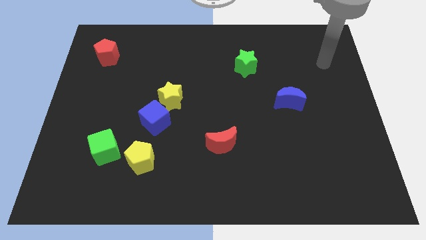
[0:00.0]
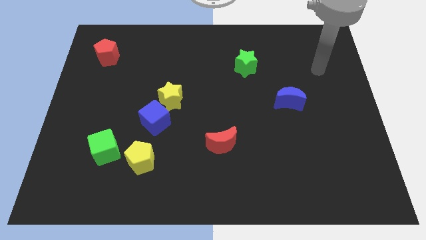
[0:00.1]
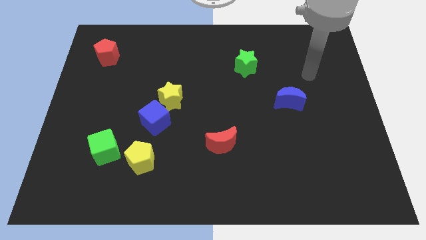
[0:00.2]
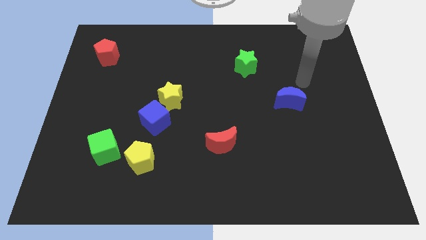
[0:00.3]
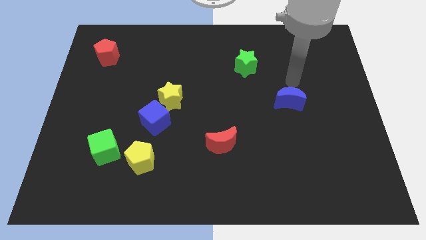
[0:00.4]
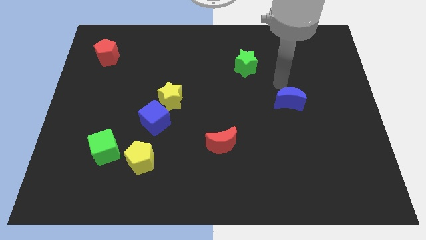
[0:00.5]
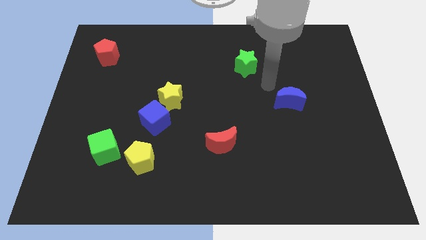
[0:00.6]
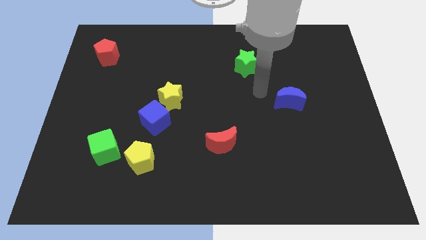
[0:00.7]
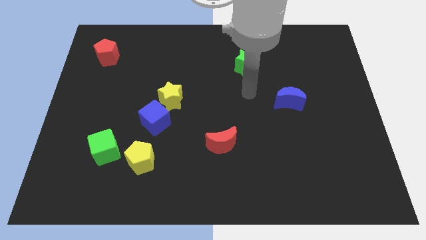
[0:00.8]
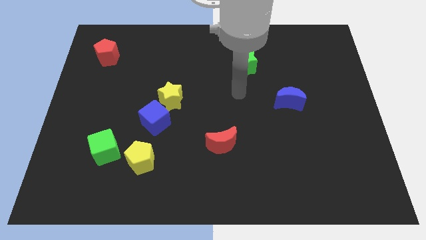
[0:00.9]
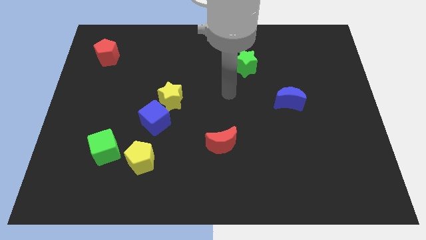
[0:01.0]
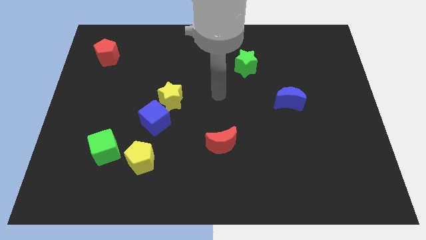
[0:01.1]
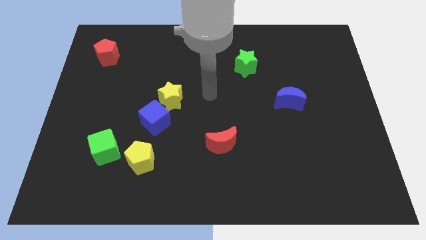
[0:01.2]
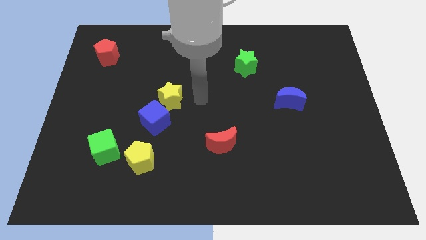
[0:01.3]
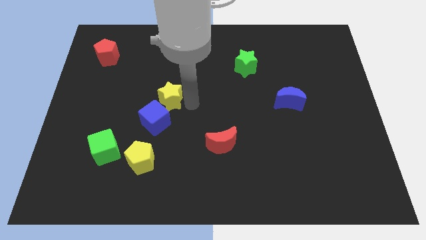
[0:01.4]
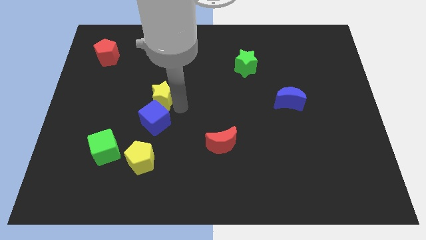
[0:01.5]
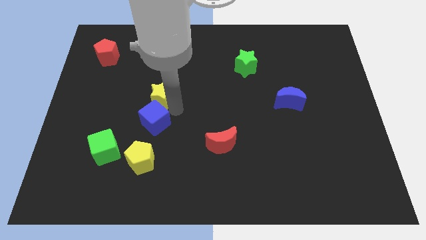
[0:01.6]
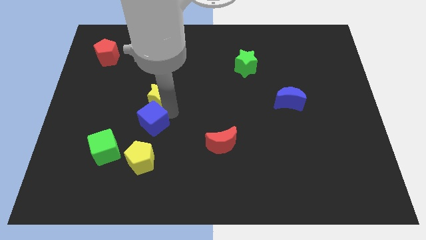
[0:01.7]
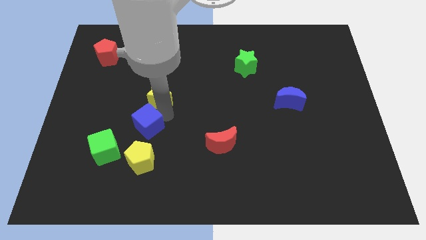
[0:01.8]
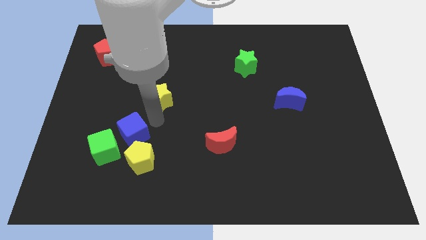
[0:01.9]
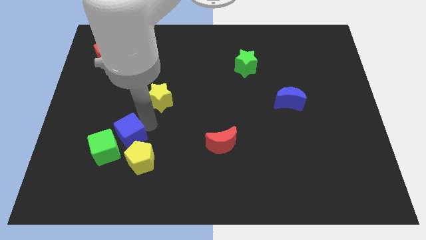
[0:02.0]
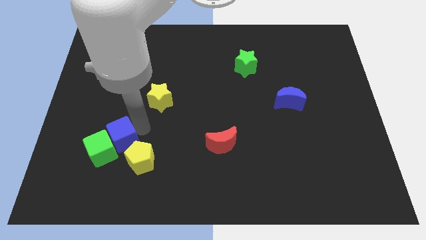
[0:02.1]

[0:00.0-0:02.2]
move the blue cube close to the green cube

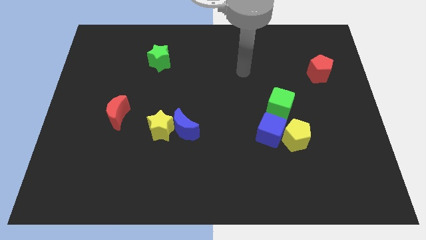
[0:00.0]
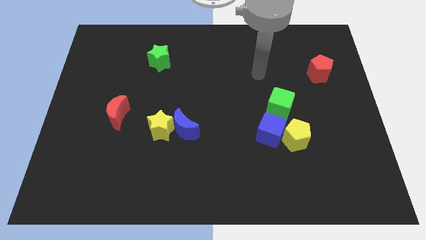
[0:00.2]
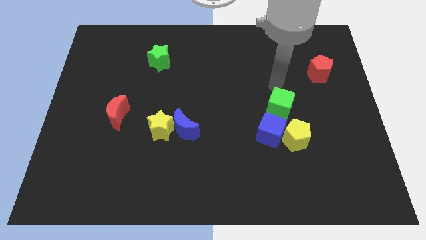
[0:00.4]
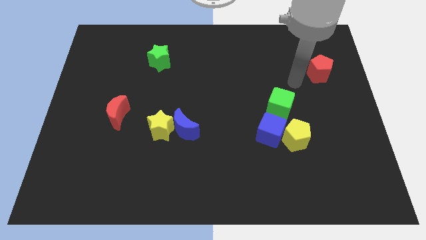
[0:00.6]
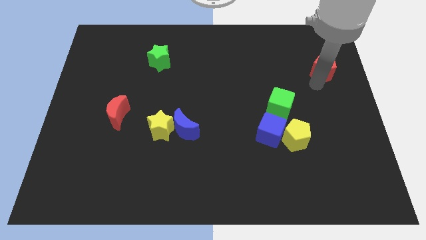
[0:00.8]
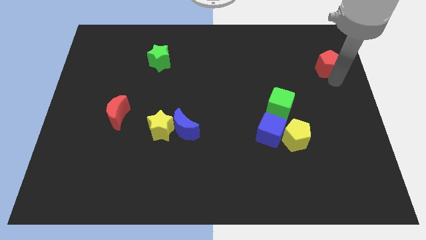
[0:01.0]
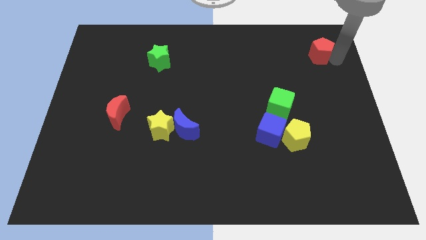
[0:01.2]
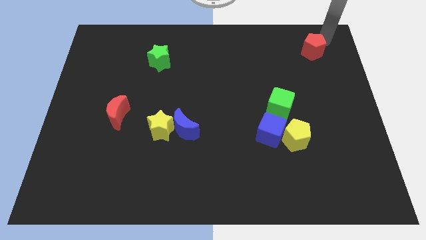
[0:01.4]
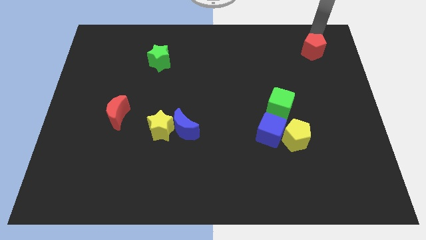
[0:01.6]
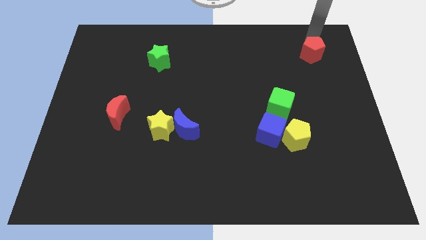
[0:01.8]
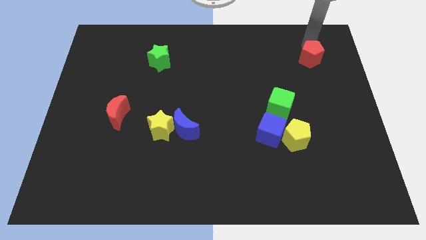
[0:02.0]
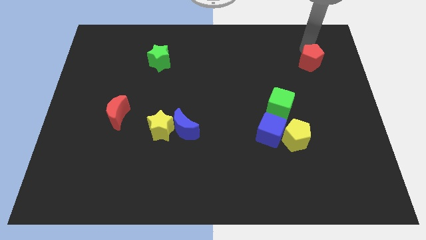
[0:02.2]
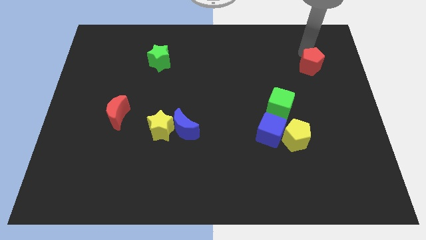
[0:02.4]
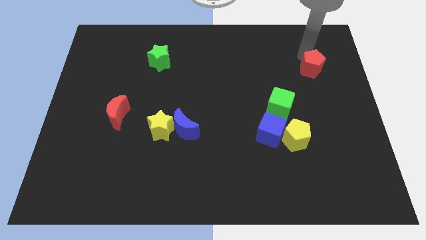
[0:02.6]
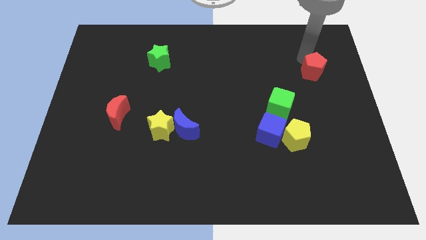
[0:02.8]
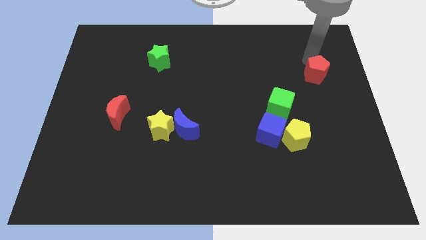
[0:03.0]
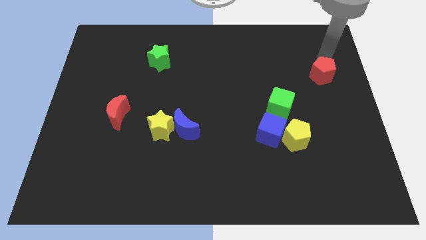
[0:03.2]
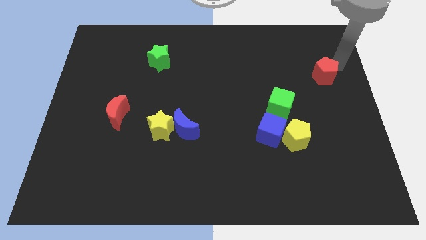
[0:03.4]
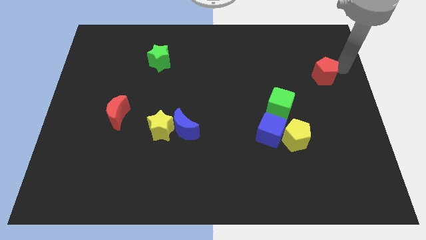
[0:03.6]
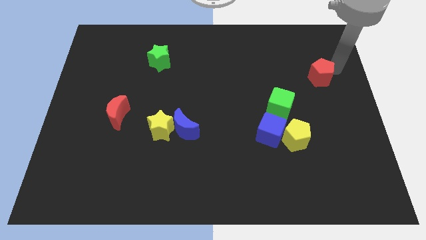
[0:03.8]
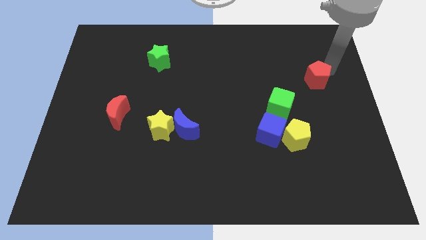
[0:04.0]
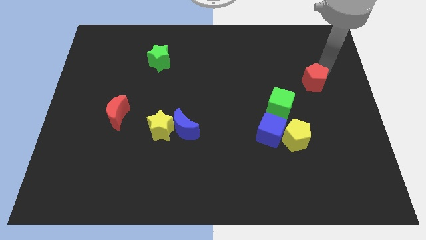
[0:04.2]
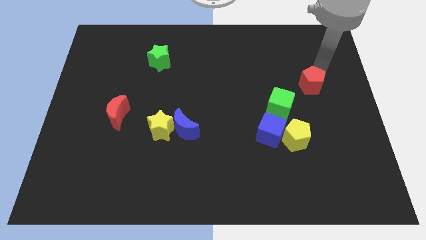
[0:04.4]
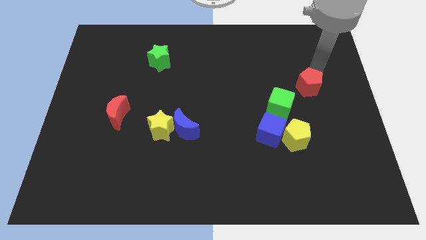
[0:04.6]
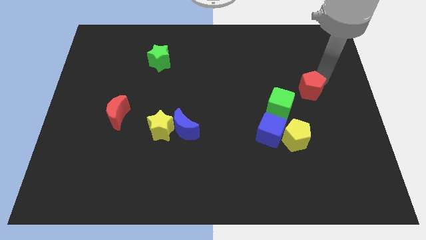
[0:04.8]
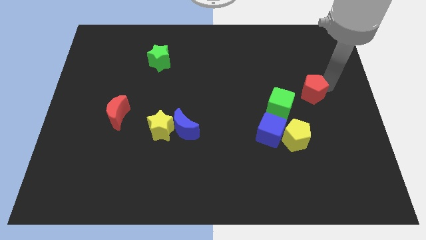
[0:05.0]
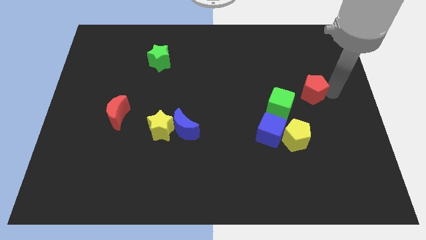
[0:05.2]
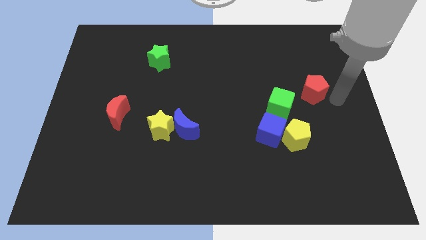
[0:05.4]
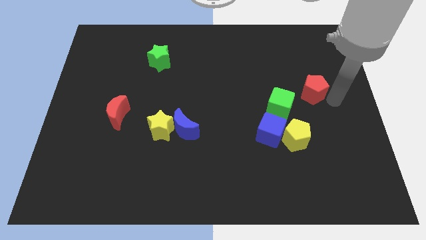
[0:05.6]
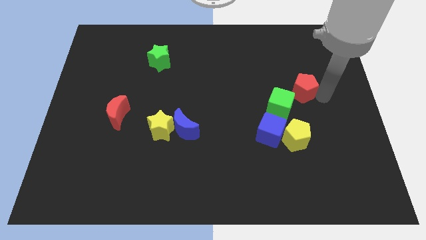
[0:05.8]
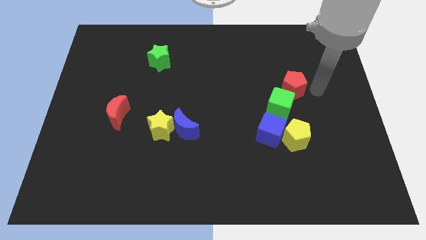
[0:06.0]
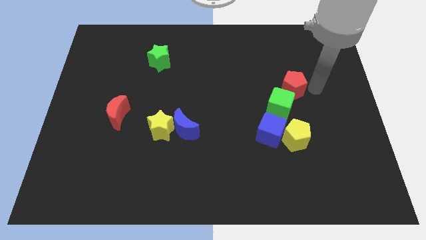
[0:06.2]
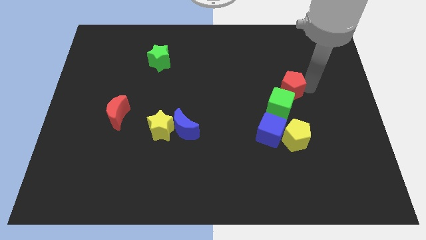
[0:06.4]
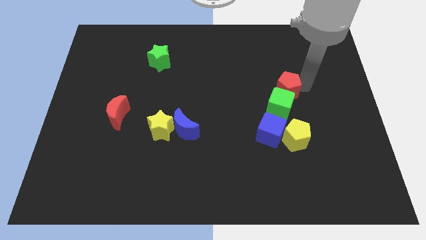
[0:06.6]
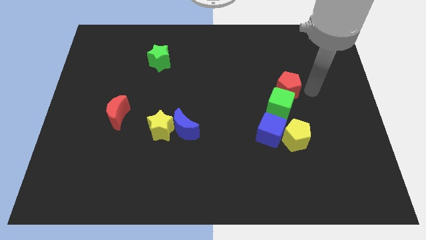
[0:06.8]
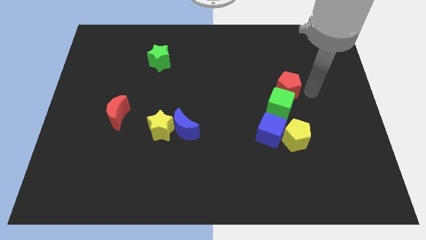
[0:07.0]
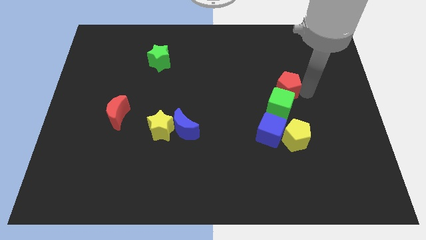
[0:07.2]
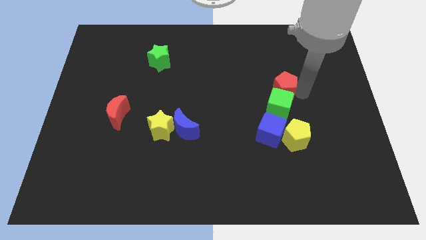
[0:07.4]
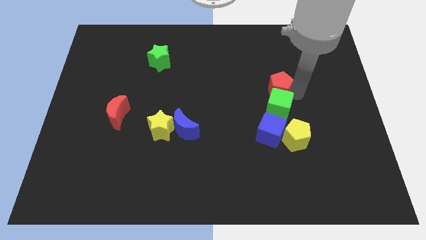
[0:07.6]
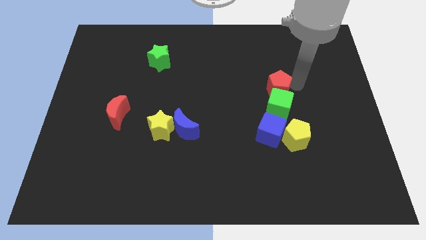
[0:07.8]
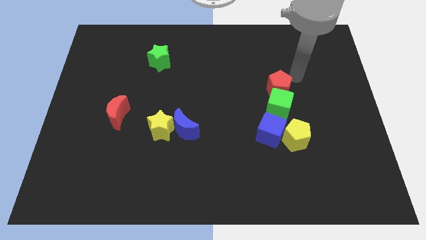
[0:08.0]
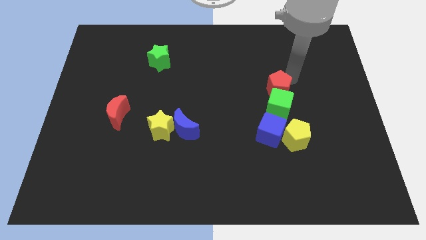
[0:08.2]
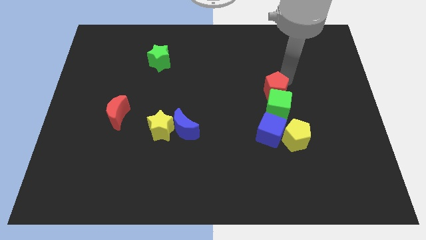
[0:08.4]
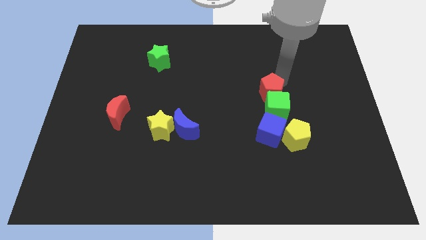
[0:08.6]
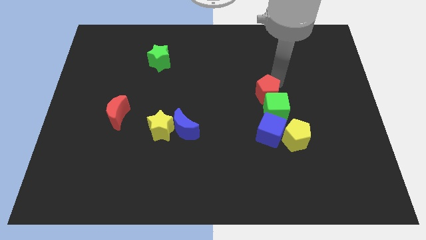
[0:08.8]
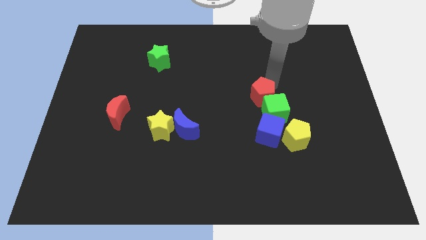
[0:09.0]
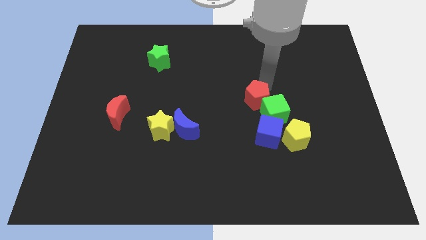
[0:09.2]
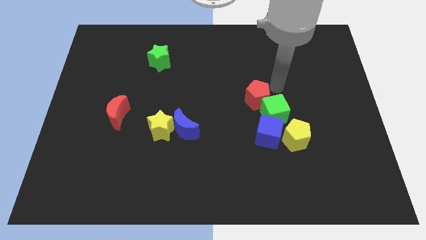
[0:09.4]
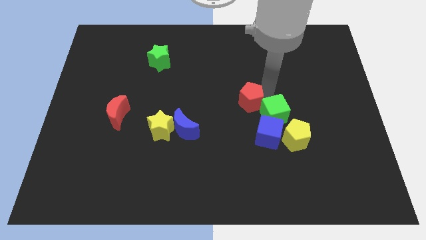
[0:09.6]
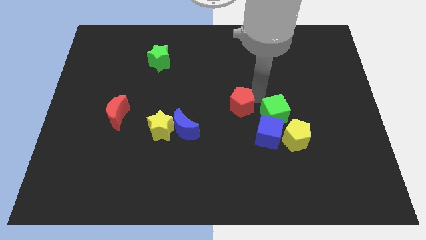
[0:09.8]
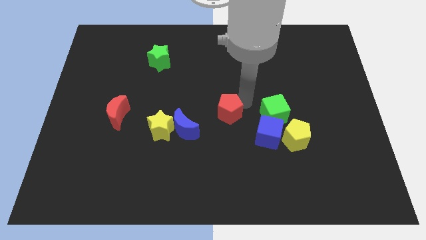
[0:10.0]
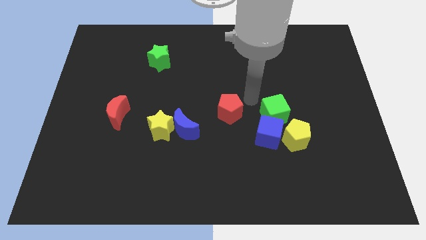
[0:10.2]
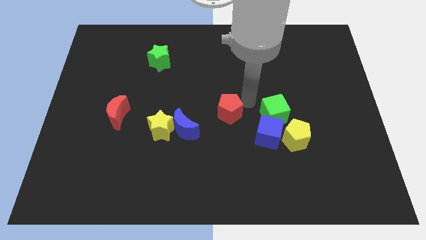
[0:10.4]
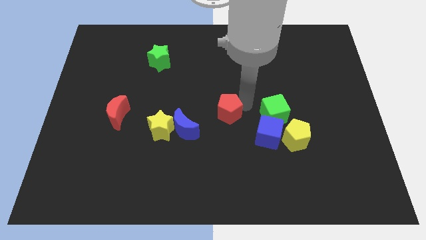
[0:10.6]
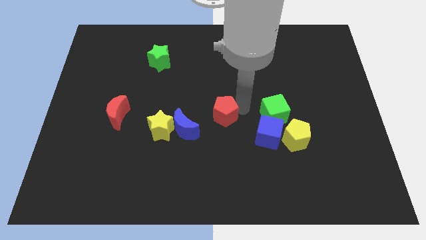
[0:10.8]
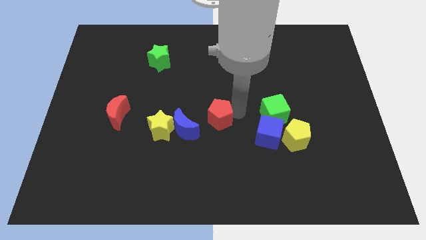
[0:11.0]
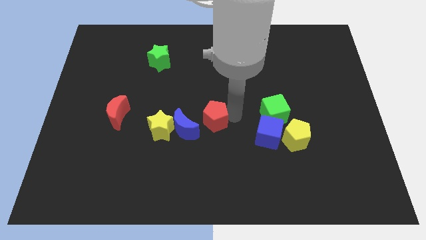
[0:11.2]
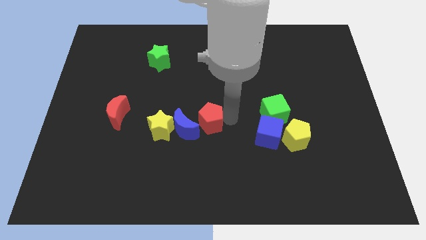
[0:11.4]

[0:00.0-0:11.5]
push the red pentagon to the blue moon

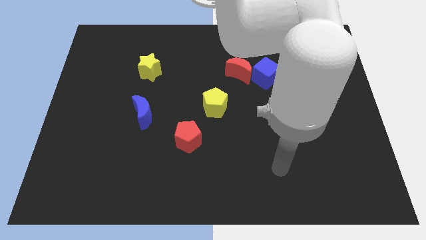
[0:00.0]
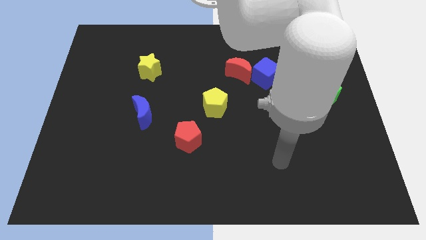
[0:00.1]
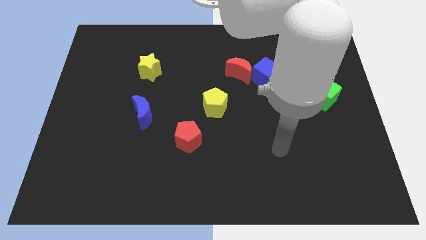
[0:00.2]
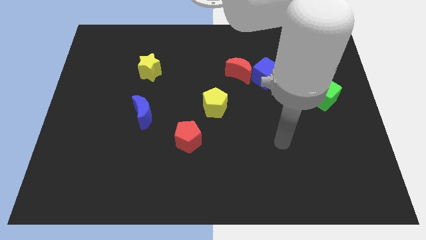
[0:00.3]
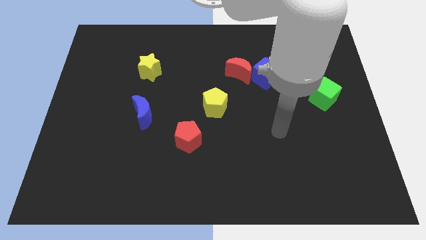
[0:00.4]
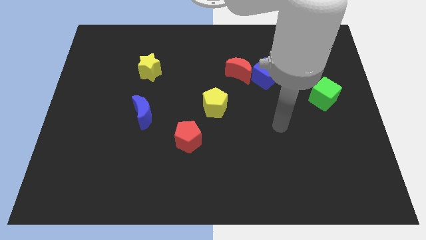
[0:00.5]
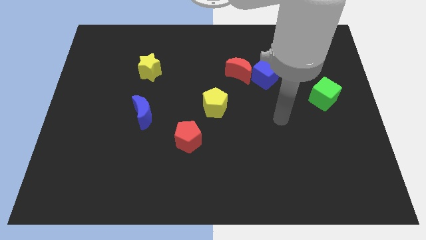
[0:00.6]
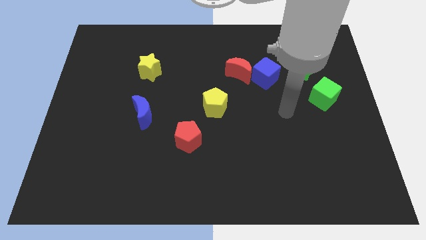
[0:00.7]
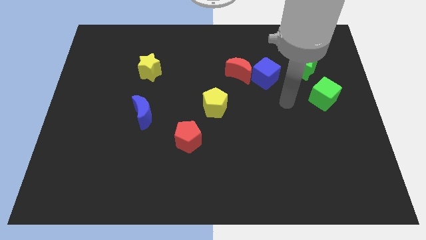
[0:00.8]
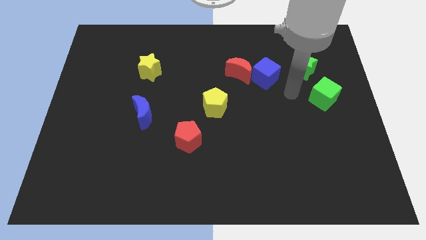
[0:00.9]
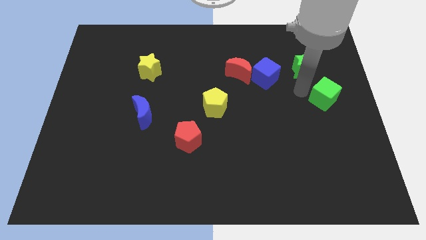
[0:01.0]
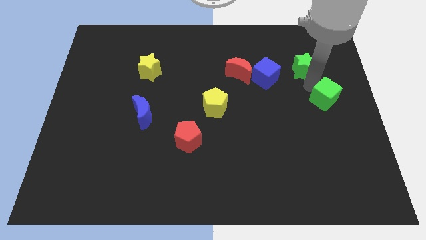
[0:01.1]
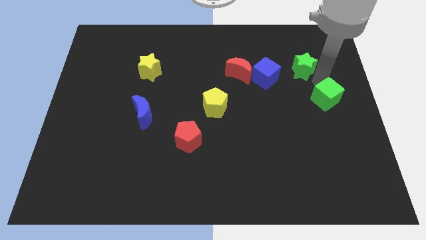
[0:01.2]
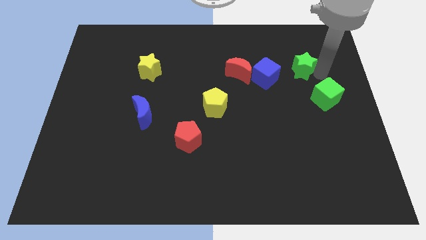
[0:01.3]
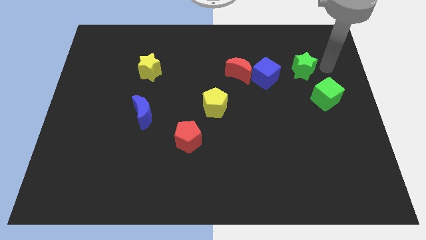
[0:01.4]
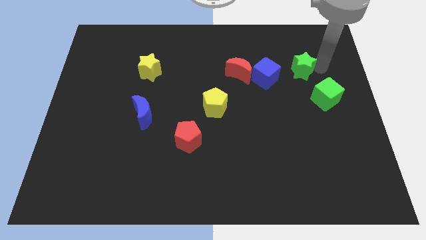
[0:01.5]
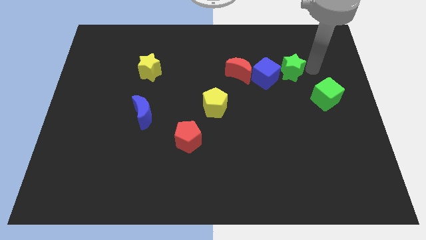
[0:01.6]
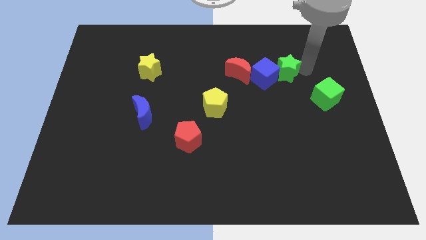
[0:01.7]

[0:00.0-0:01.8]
put the green star close to the blue cube
